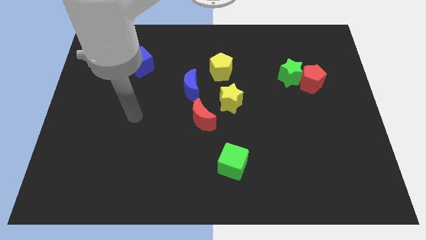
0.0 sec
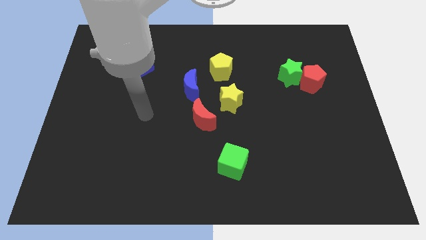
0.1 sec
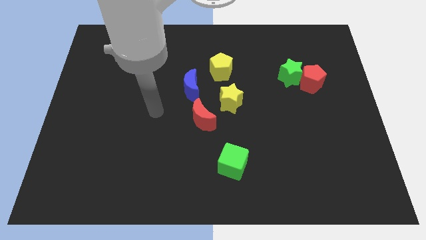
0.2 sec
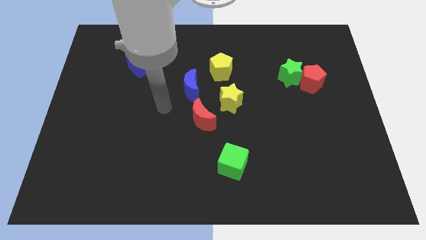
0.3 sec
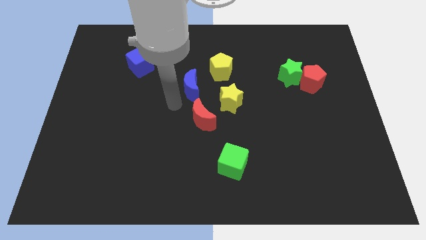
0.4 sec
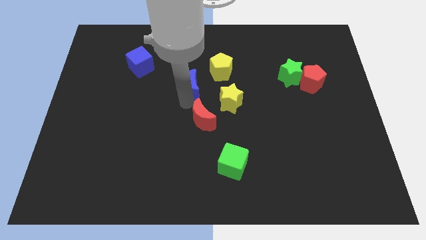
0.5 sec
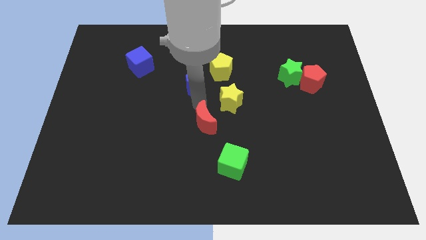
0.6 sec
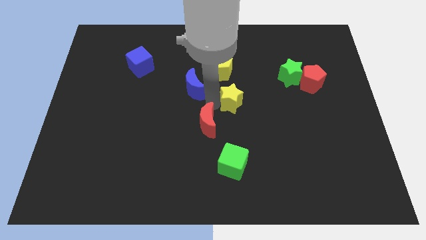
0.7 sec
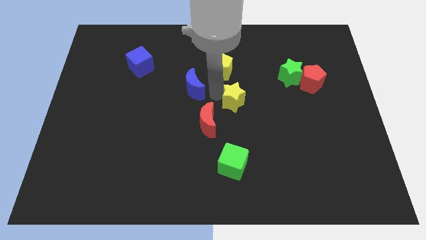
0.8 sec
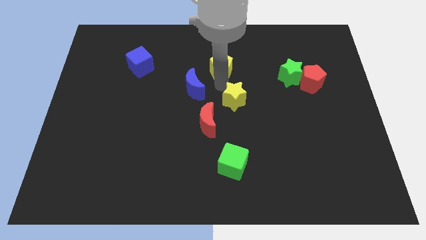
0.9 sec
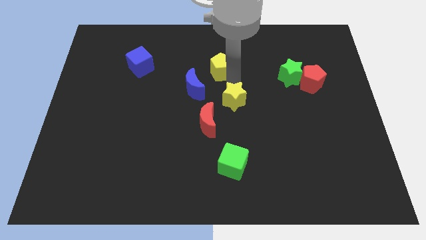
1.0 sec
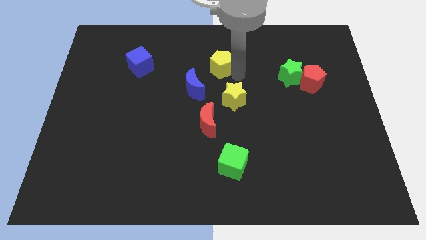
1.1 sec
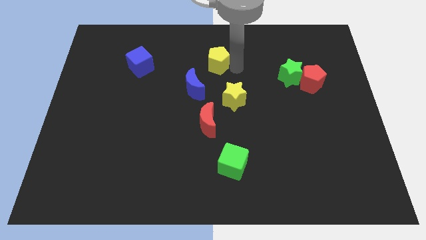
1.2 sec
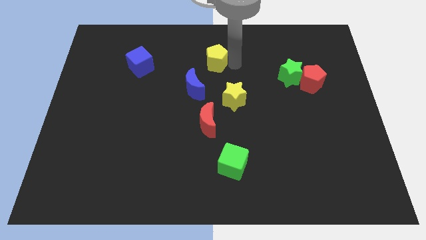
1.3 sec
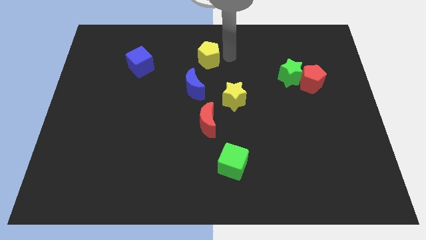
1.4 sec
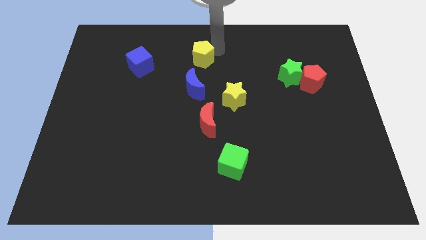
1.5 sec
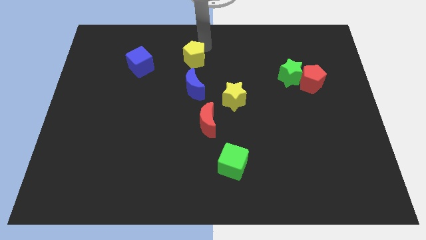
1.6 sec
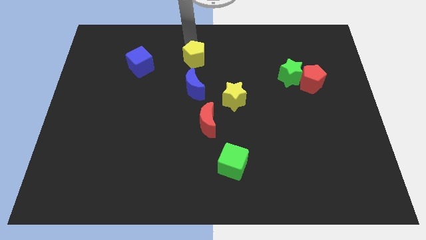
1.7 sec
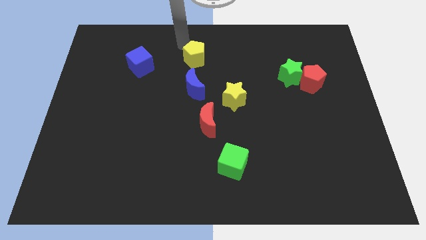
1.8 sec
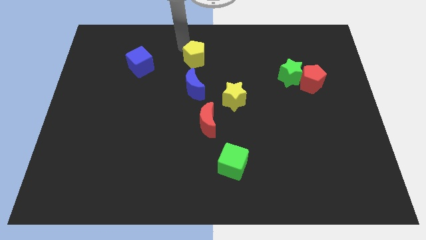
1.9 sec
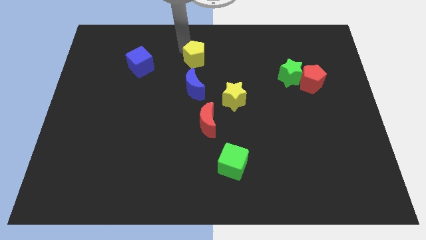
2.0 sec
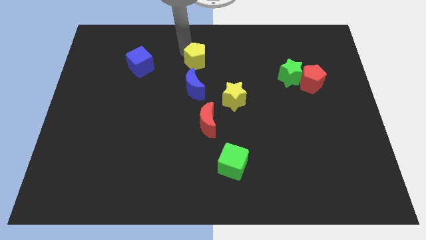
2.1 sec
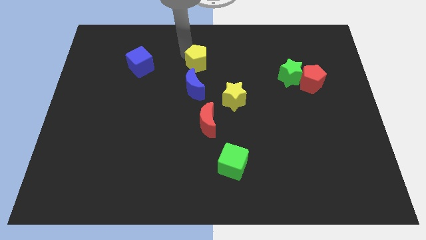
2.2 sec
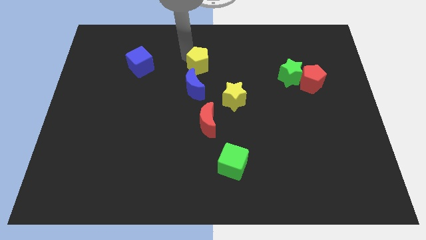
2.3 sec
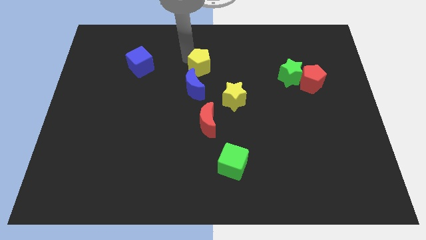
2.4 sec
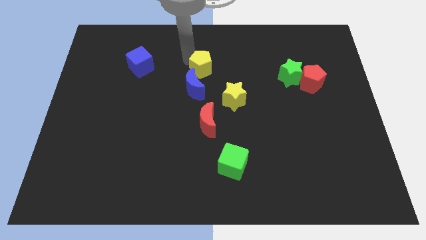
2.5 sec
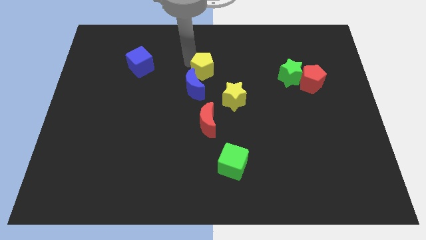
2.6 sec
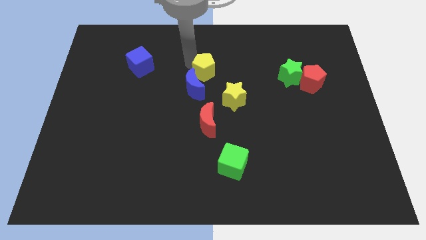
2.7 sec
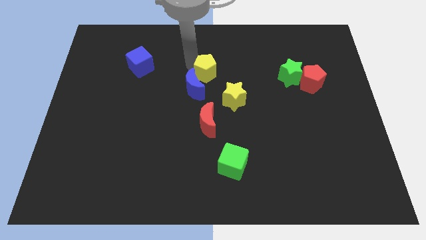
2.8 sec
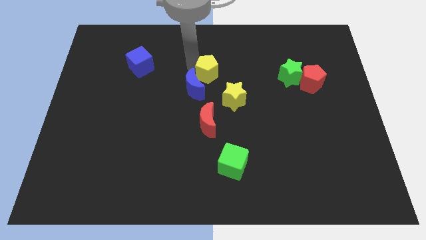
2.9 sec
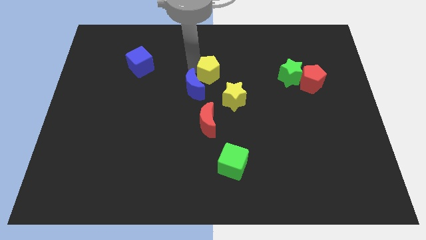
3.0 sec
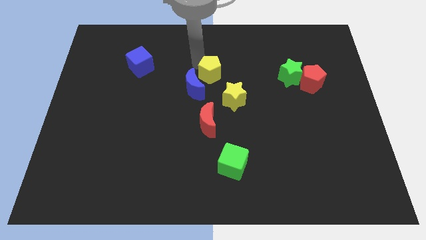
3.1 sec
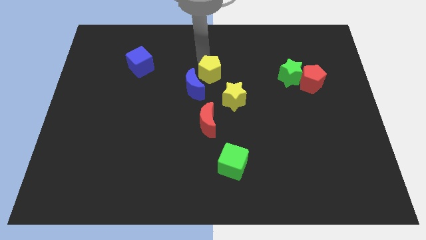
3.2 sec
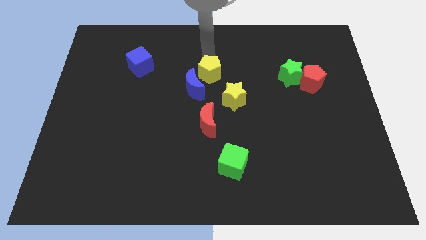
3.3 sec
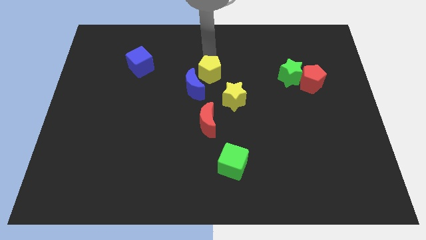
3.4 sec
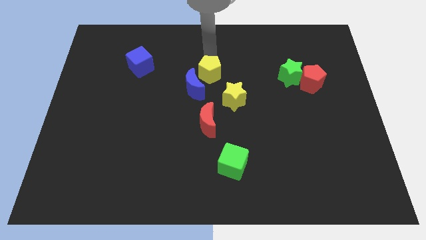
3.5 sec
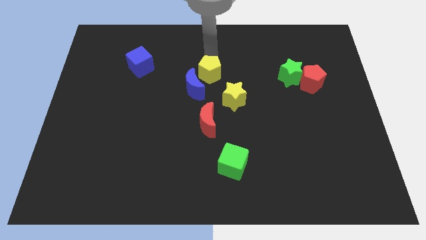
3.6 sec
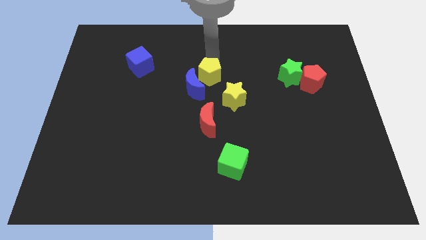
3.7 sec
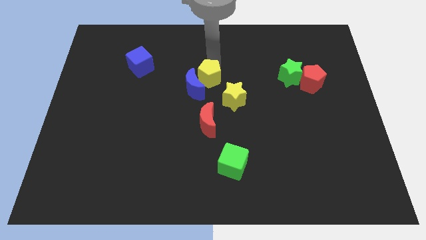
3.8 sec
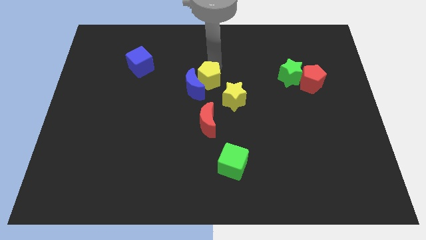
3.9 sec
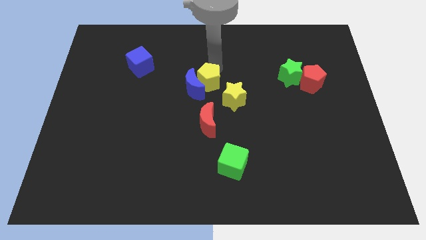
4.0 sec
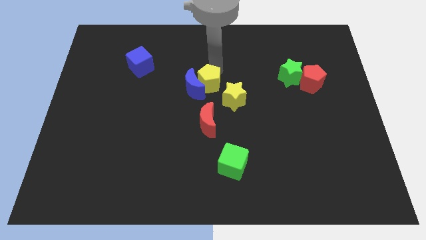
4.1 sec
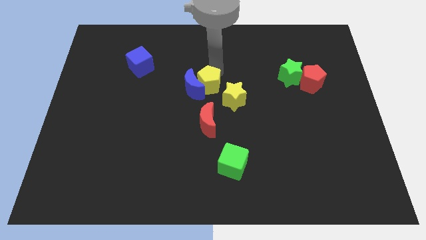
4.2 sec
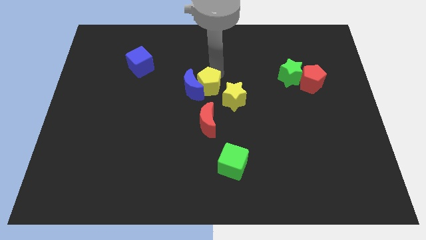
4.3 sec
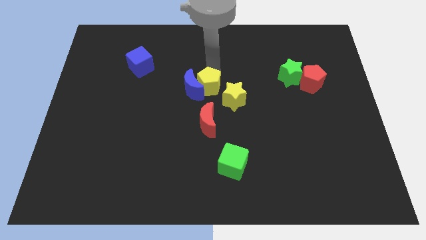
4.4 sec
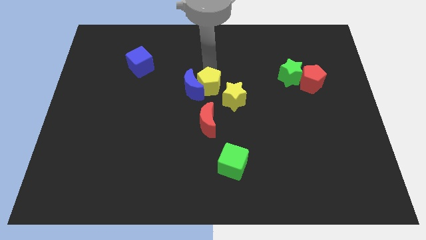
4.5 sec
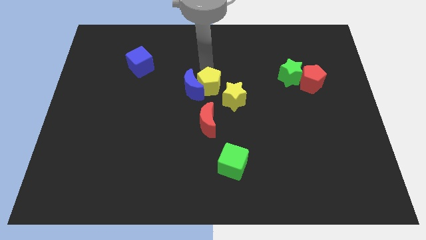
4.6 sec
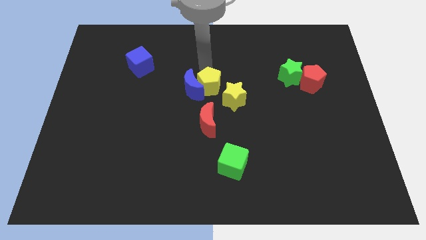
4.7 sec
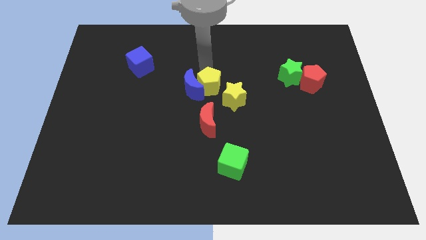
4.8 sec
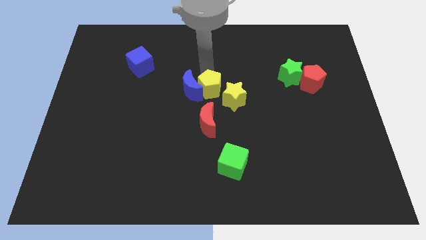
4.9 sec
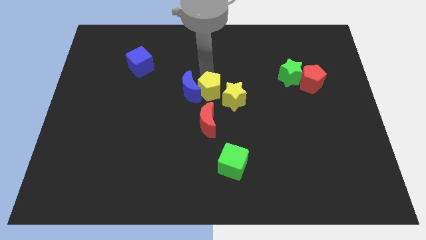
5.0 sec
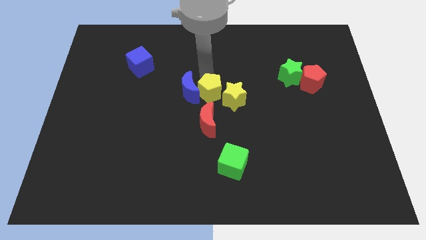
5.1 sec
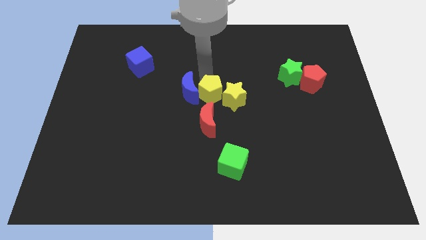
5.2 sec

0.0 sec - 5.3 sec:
push the yellow pentagon diagonally downwards and to the left a little bit

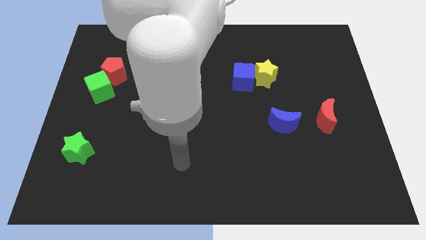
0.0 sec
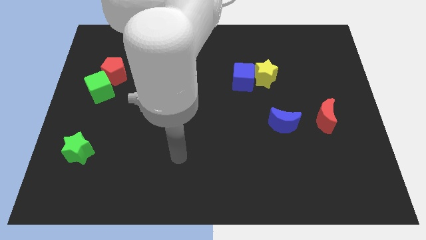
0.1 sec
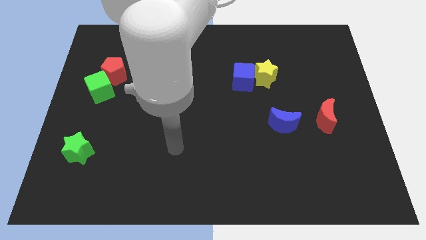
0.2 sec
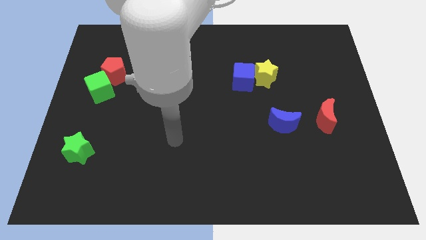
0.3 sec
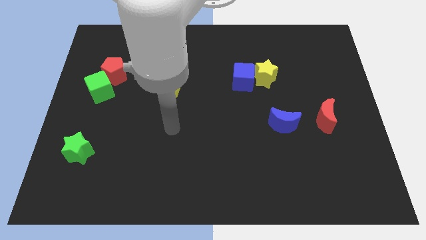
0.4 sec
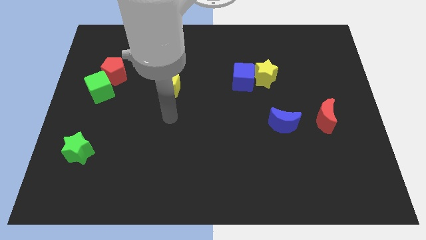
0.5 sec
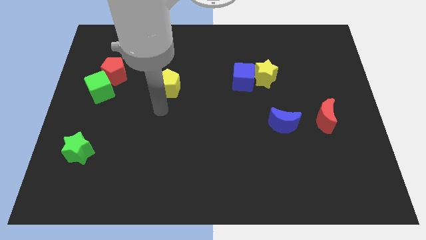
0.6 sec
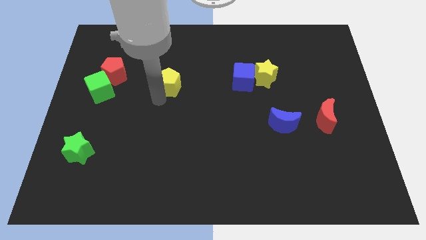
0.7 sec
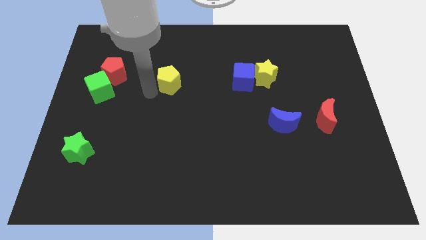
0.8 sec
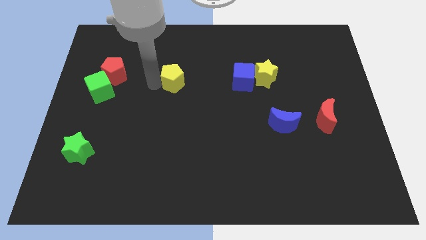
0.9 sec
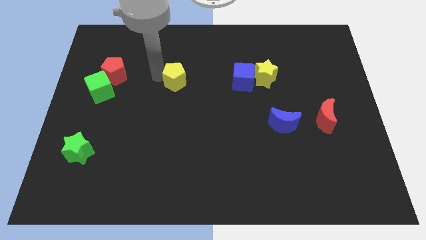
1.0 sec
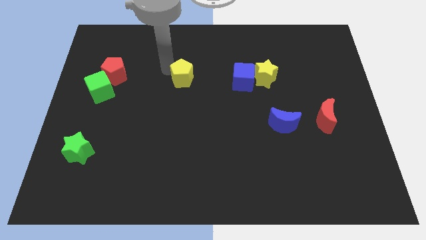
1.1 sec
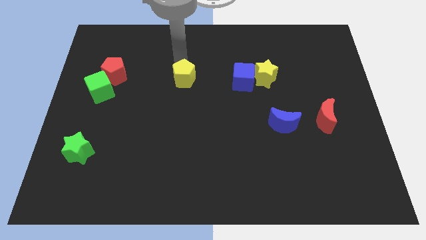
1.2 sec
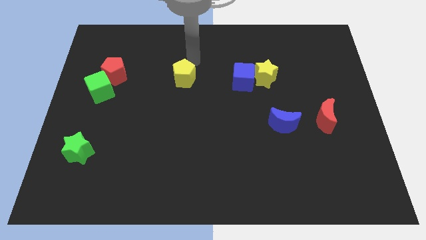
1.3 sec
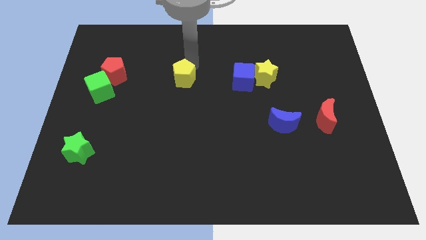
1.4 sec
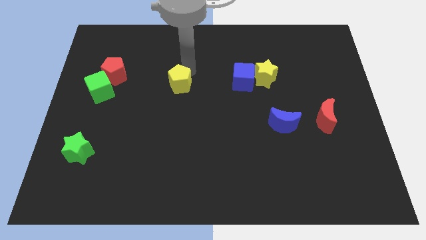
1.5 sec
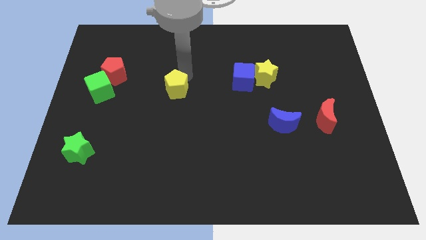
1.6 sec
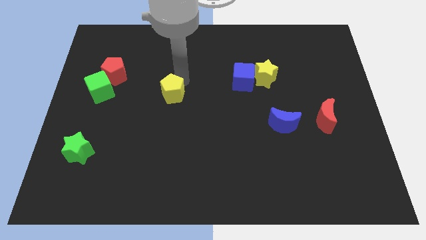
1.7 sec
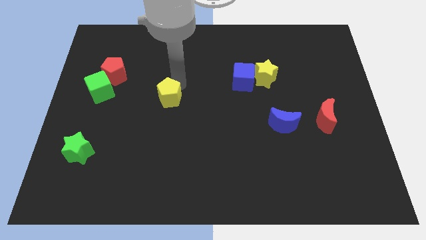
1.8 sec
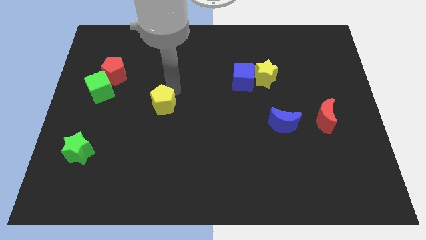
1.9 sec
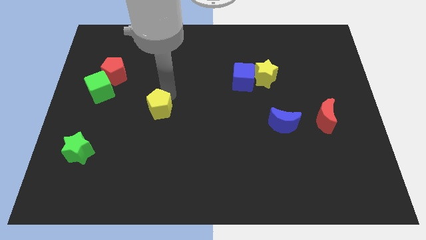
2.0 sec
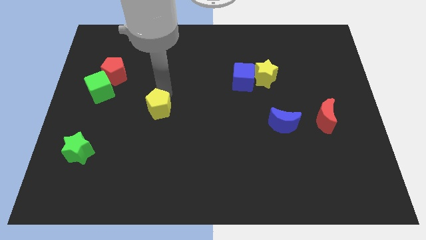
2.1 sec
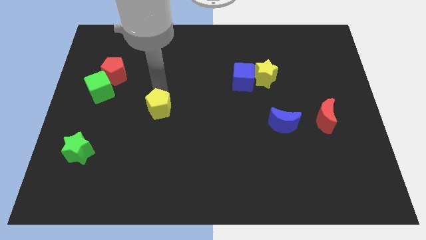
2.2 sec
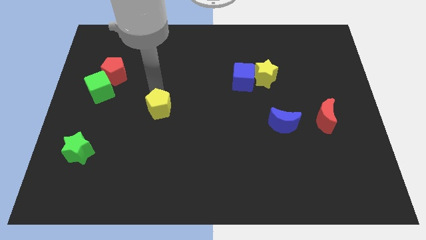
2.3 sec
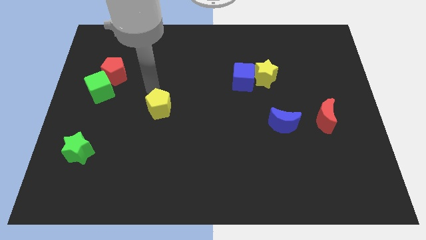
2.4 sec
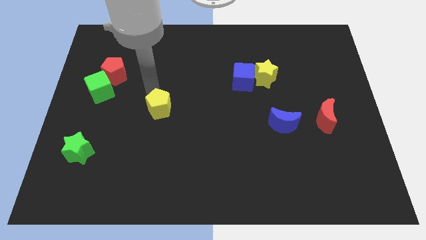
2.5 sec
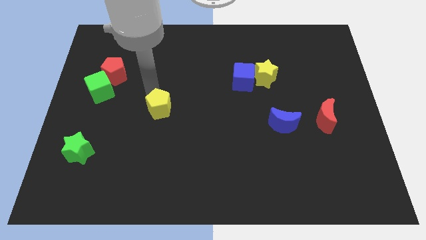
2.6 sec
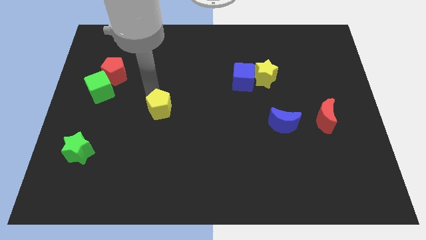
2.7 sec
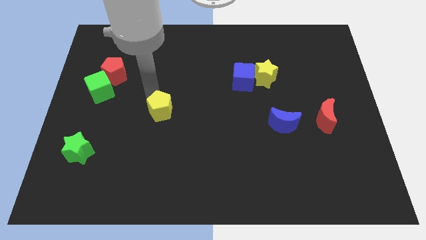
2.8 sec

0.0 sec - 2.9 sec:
push the yellow pentagon a bit down
